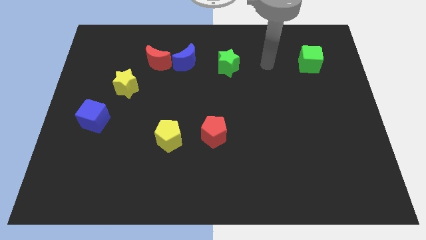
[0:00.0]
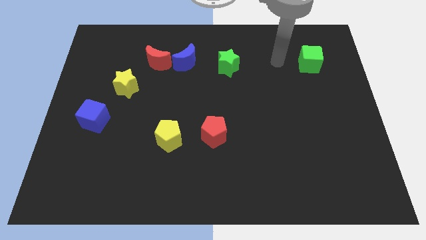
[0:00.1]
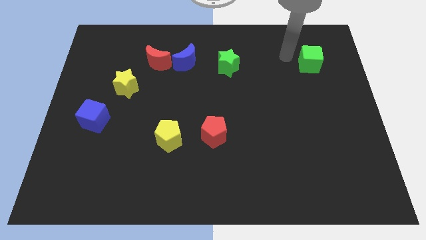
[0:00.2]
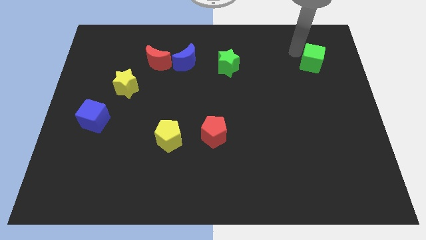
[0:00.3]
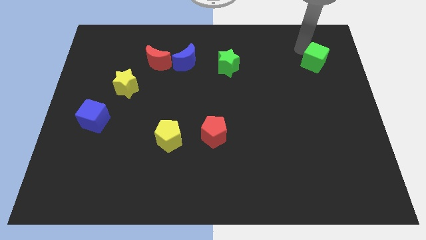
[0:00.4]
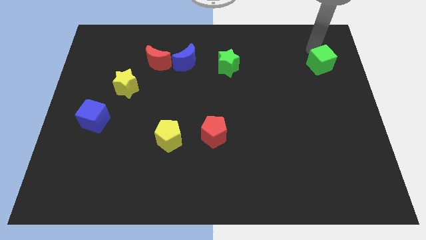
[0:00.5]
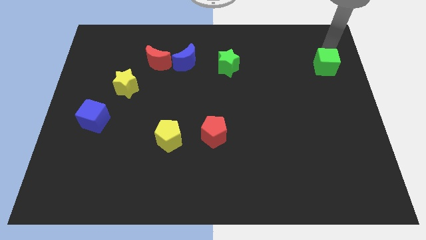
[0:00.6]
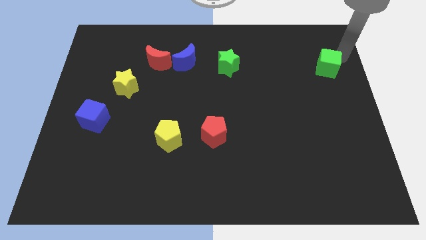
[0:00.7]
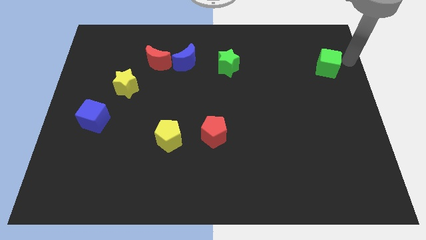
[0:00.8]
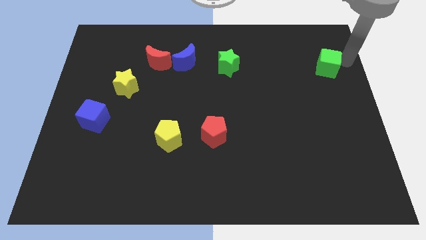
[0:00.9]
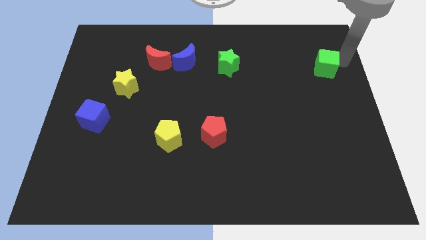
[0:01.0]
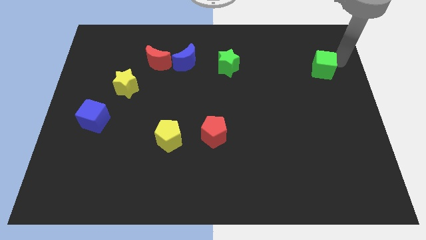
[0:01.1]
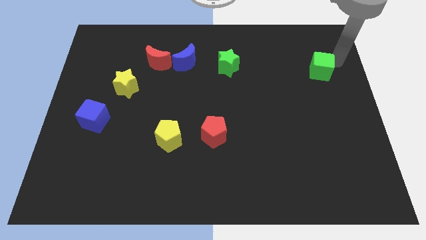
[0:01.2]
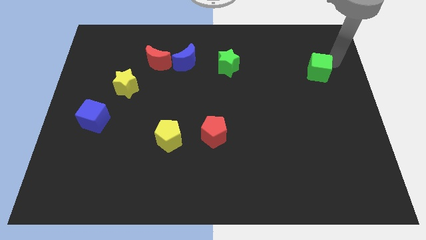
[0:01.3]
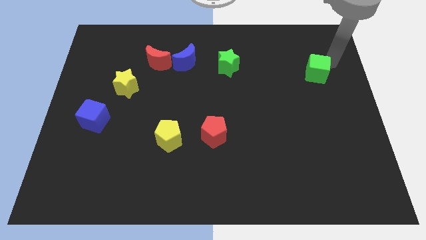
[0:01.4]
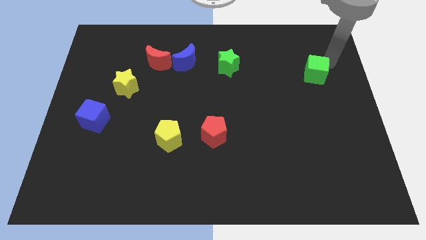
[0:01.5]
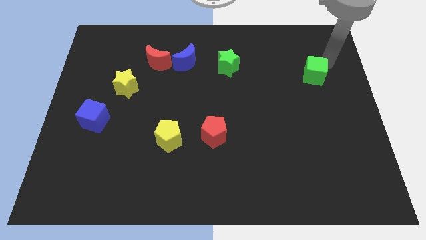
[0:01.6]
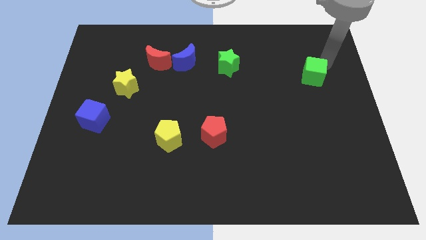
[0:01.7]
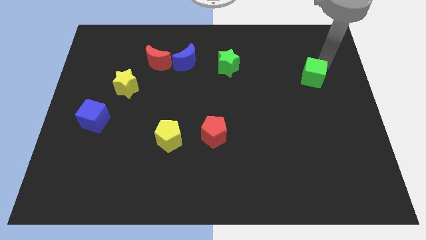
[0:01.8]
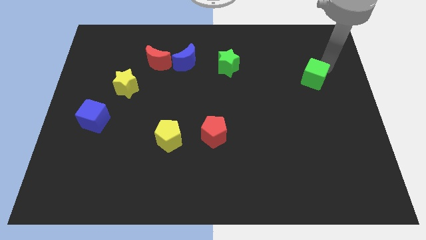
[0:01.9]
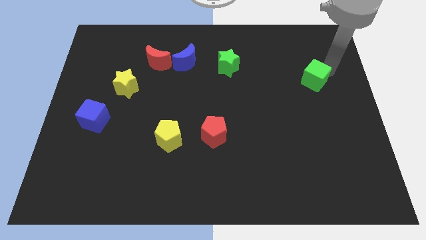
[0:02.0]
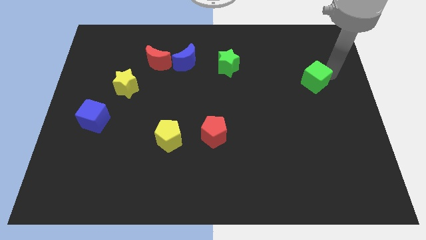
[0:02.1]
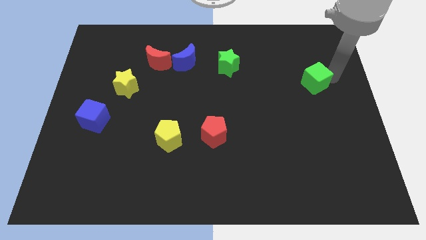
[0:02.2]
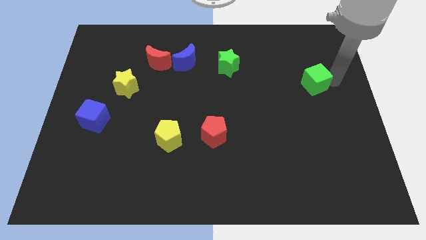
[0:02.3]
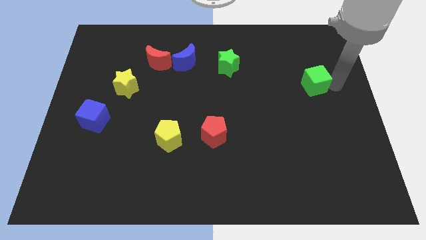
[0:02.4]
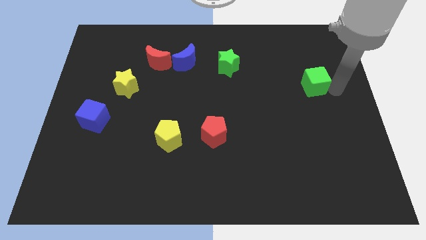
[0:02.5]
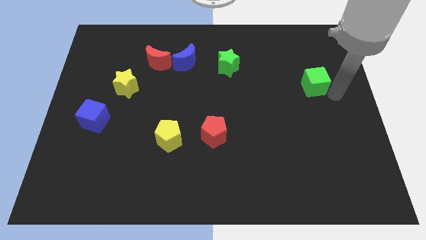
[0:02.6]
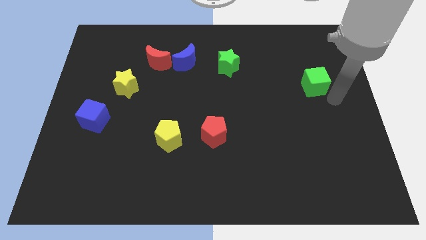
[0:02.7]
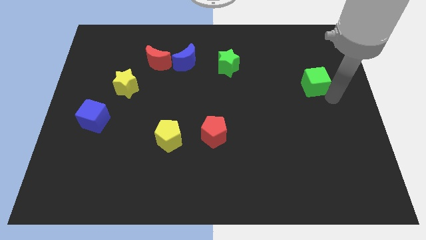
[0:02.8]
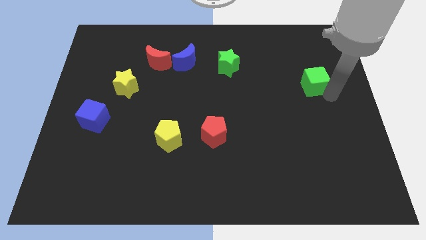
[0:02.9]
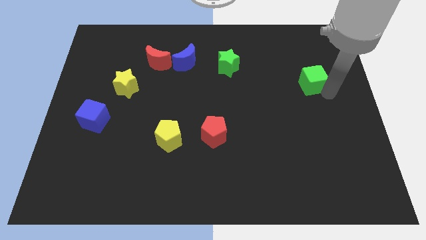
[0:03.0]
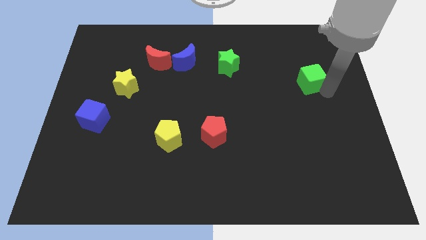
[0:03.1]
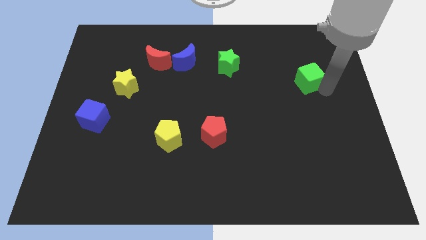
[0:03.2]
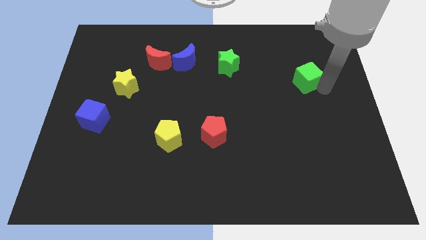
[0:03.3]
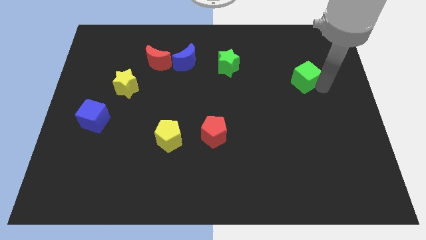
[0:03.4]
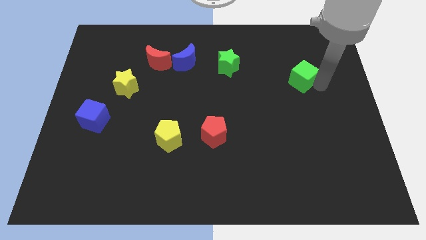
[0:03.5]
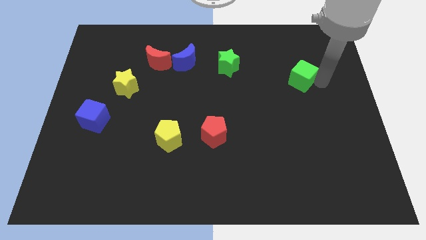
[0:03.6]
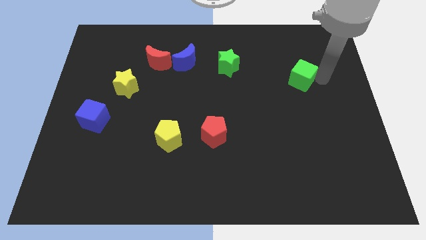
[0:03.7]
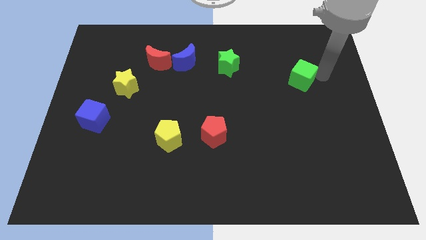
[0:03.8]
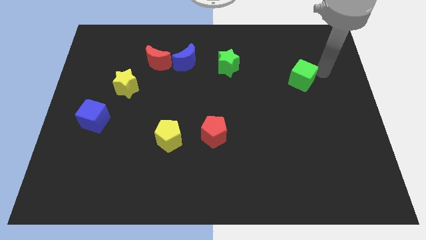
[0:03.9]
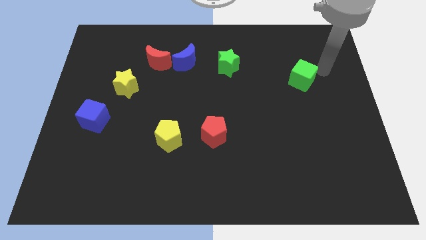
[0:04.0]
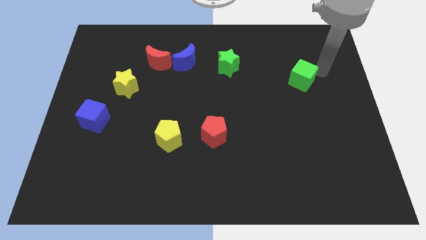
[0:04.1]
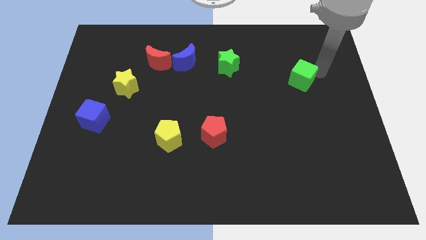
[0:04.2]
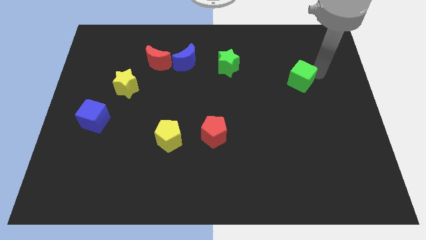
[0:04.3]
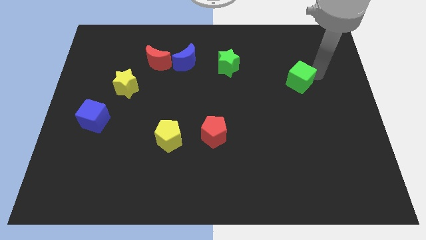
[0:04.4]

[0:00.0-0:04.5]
slightly slide the green cube diagonally downwards and left

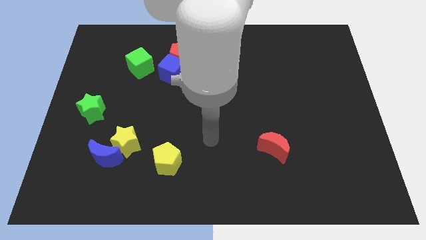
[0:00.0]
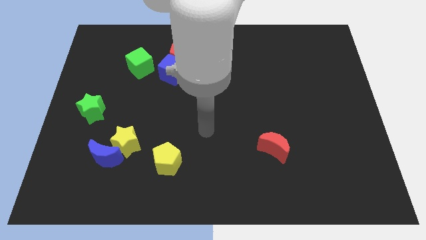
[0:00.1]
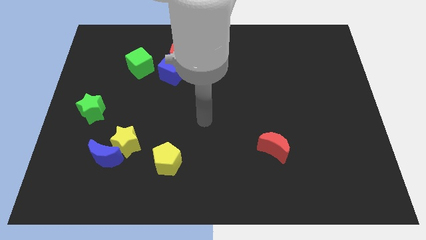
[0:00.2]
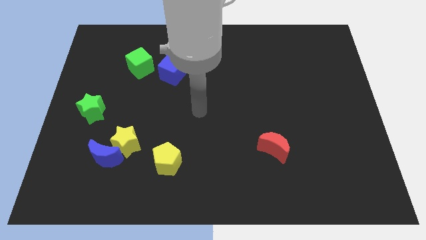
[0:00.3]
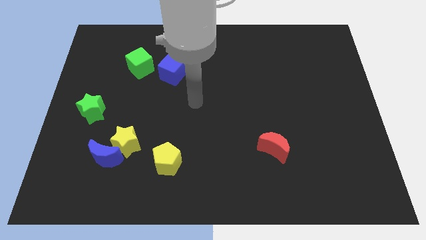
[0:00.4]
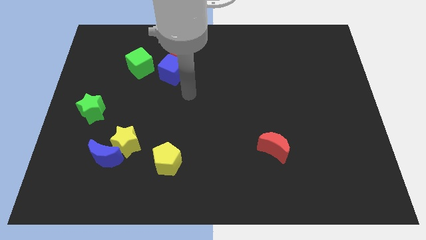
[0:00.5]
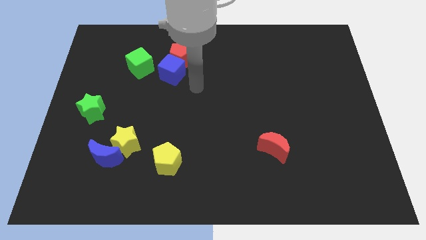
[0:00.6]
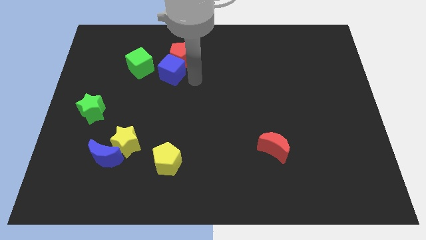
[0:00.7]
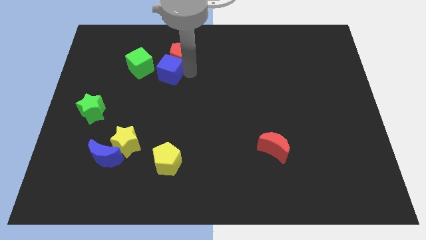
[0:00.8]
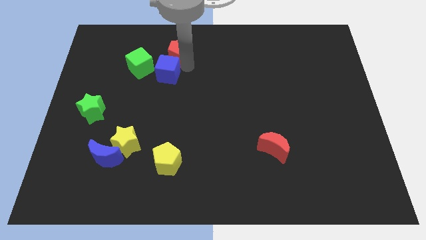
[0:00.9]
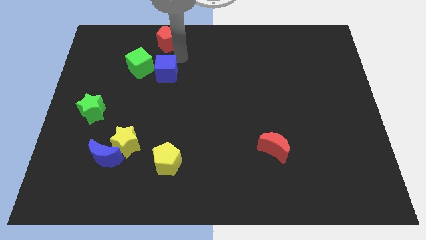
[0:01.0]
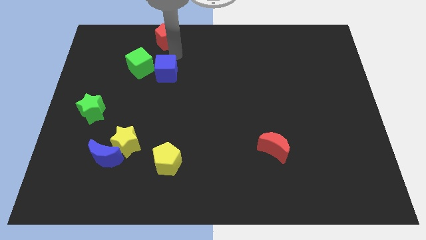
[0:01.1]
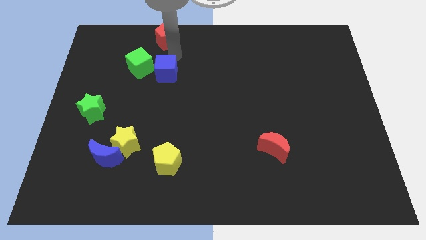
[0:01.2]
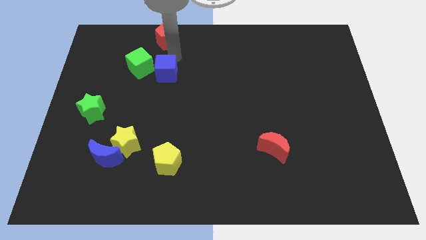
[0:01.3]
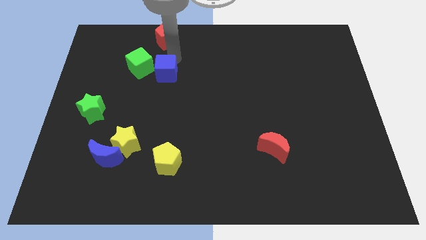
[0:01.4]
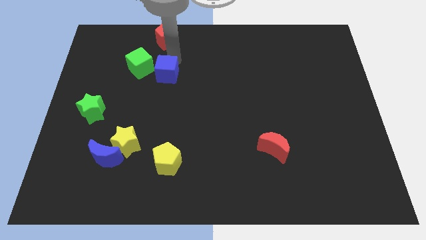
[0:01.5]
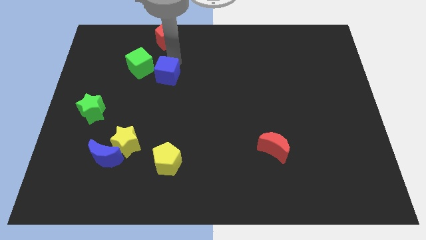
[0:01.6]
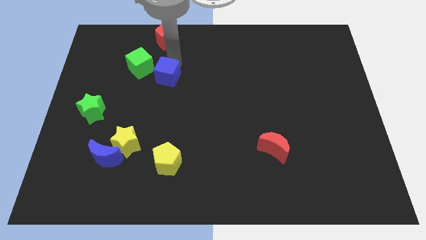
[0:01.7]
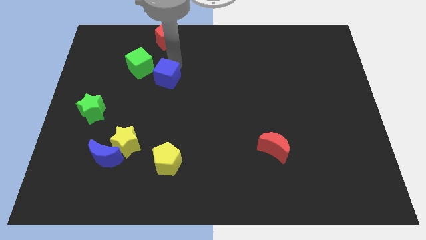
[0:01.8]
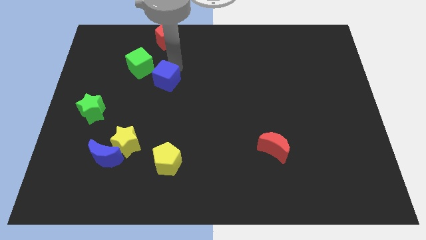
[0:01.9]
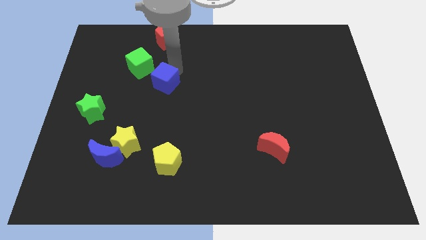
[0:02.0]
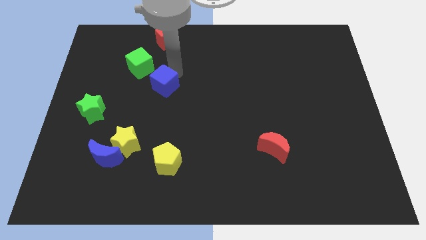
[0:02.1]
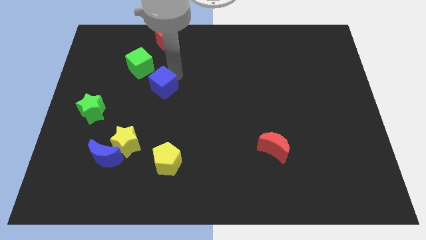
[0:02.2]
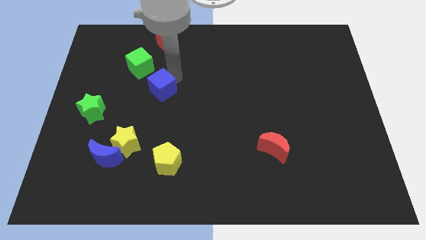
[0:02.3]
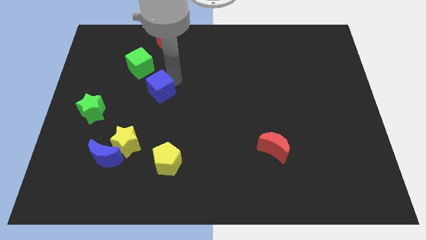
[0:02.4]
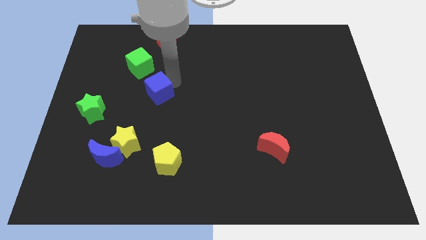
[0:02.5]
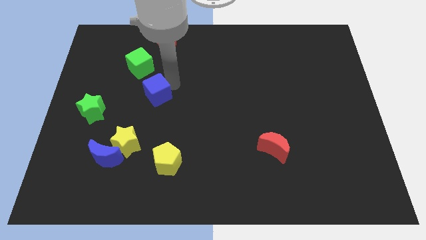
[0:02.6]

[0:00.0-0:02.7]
slide the blue cube a bit downwards and left diagonally

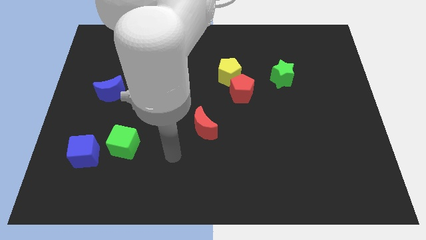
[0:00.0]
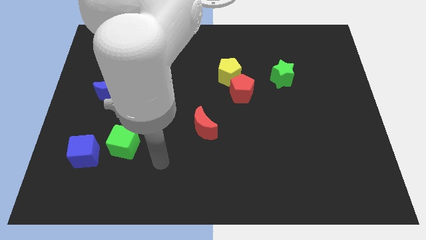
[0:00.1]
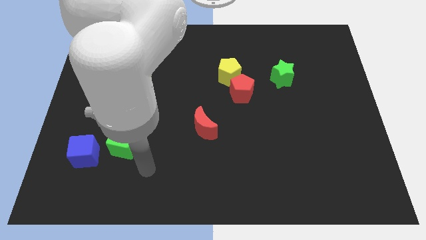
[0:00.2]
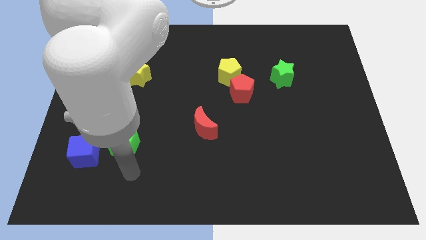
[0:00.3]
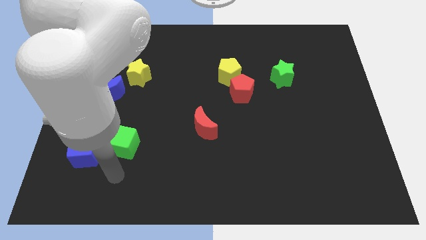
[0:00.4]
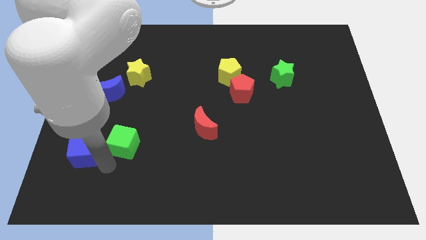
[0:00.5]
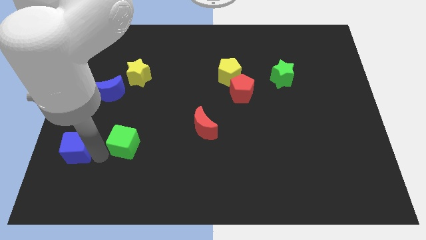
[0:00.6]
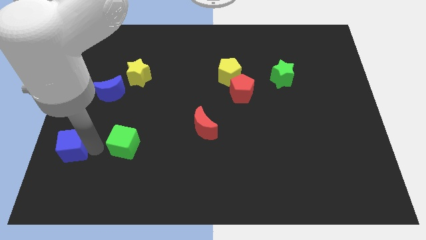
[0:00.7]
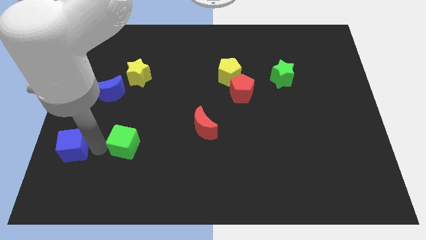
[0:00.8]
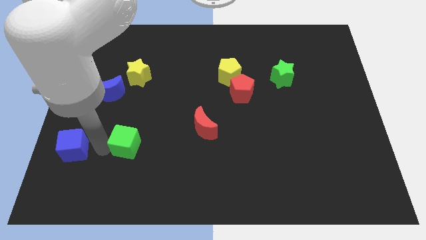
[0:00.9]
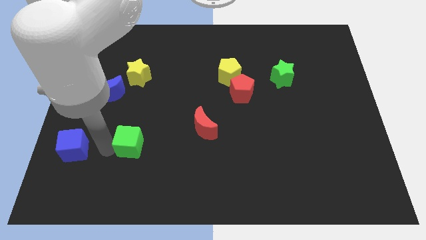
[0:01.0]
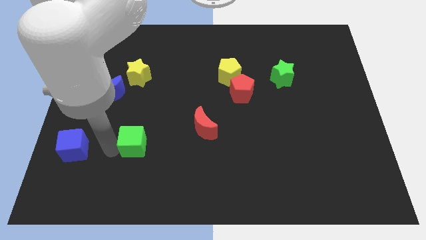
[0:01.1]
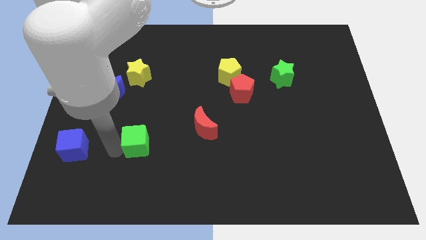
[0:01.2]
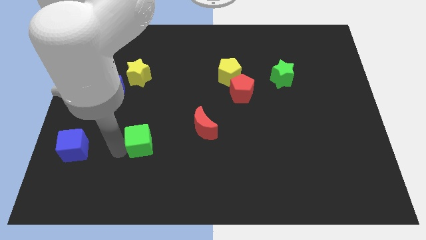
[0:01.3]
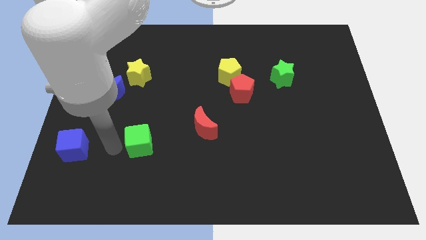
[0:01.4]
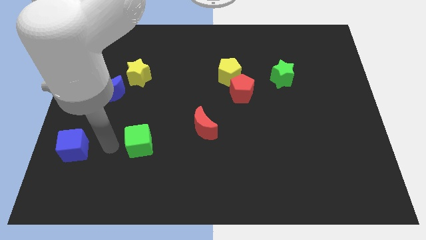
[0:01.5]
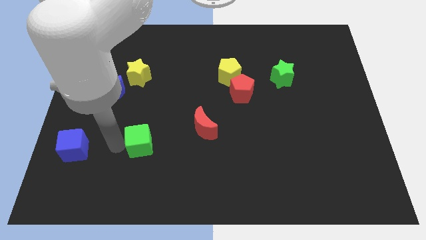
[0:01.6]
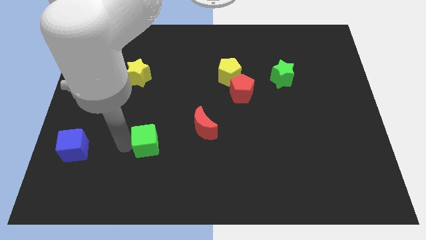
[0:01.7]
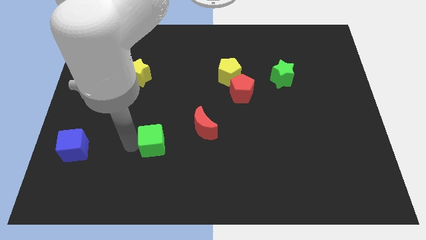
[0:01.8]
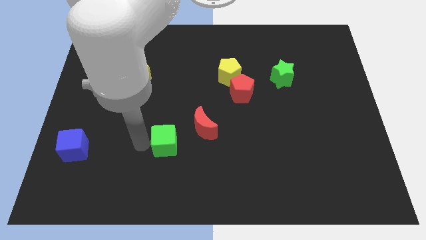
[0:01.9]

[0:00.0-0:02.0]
push the green cube a bit to the right
